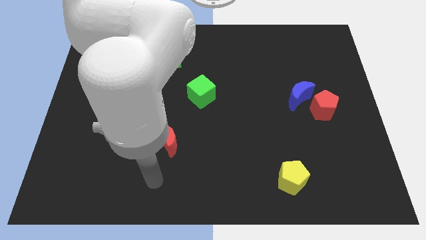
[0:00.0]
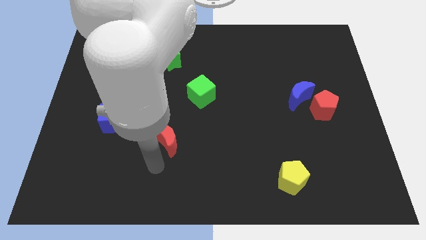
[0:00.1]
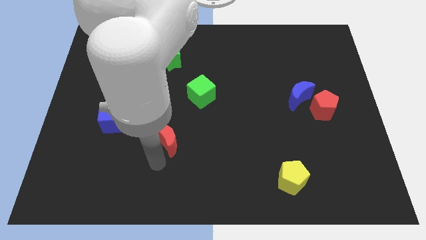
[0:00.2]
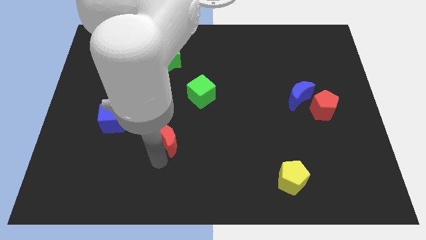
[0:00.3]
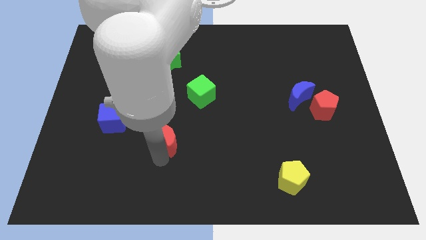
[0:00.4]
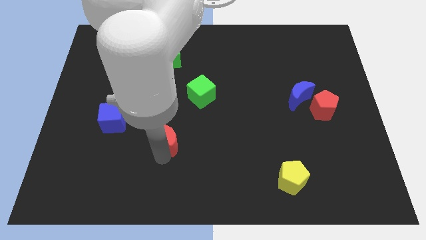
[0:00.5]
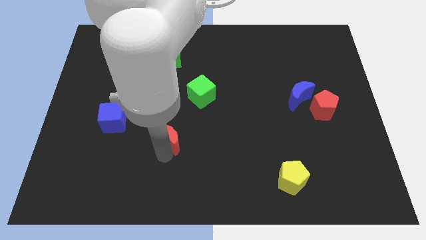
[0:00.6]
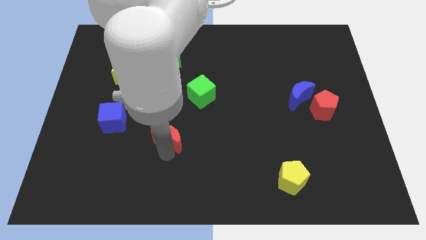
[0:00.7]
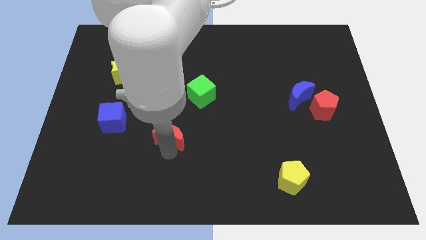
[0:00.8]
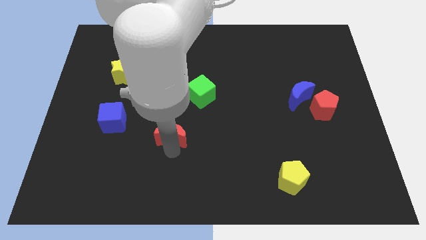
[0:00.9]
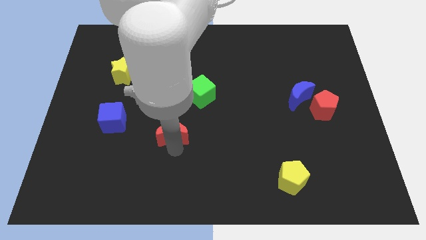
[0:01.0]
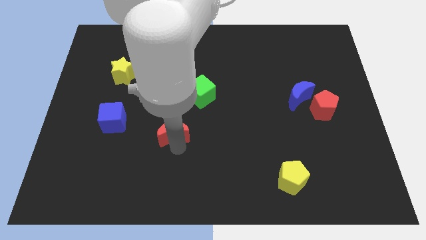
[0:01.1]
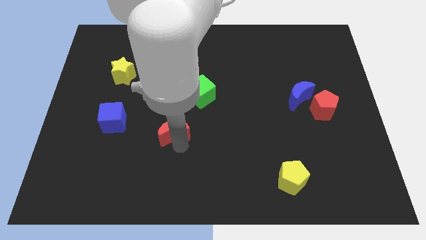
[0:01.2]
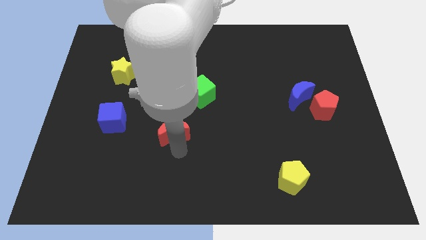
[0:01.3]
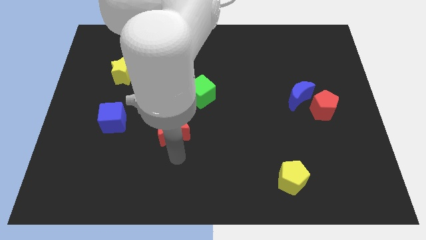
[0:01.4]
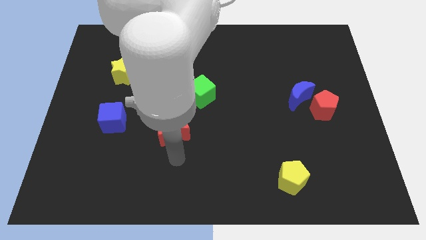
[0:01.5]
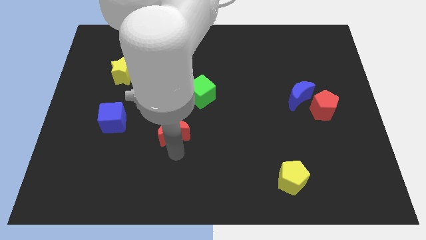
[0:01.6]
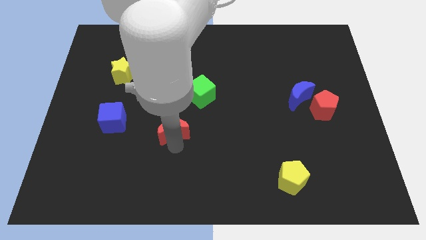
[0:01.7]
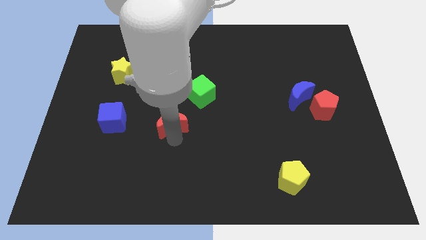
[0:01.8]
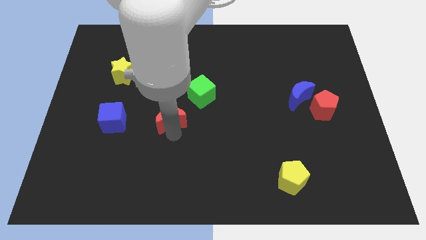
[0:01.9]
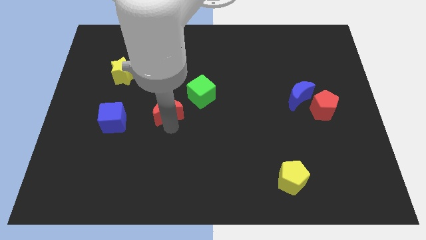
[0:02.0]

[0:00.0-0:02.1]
move the red moon upwards a bit

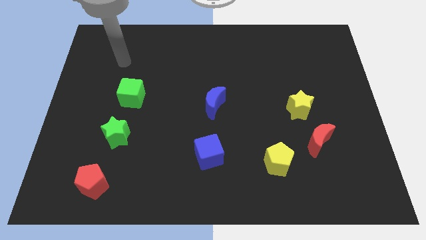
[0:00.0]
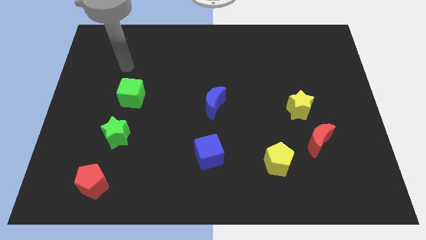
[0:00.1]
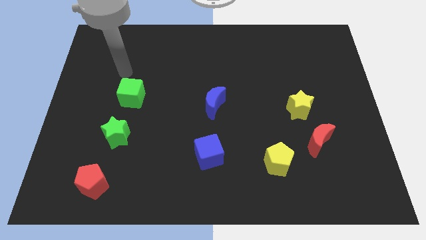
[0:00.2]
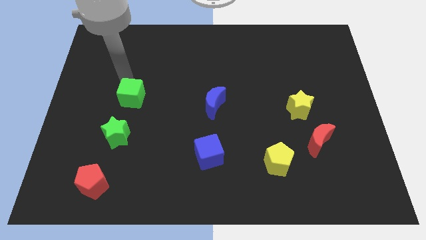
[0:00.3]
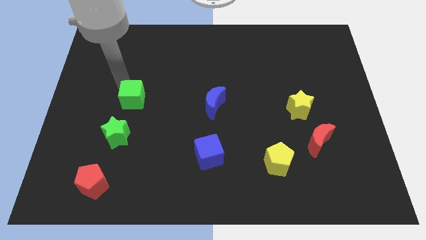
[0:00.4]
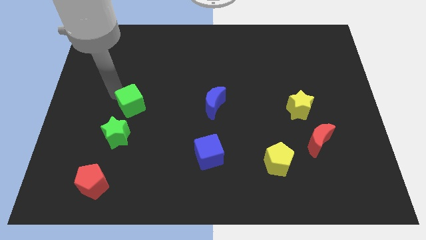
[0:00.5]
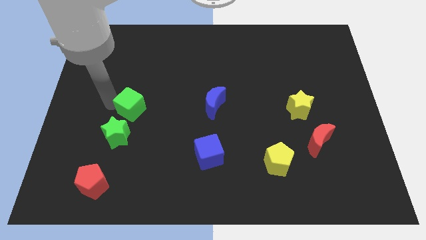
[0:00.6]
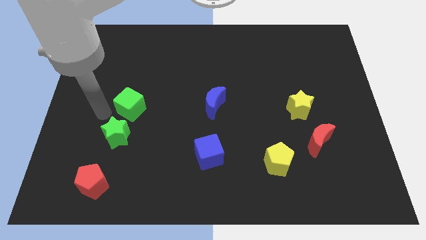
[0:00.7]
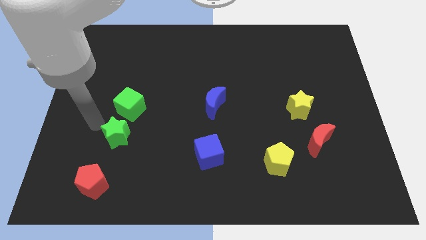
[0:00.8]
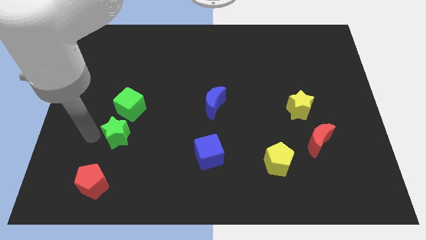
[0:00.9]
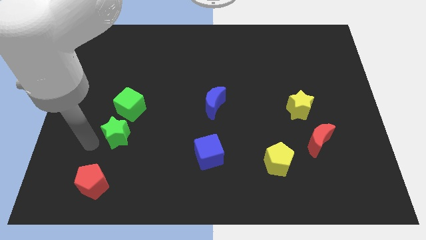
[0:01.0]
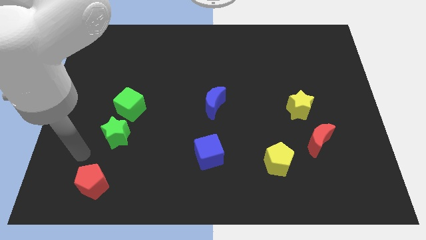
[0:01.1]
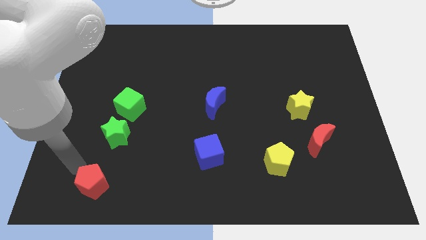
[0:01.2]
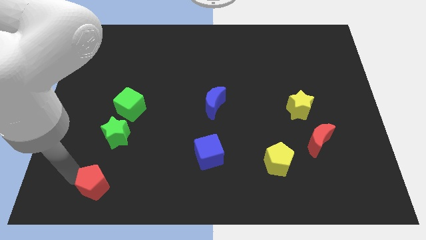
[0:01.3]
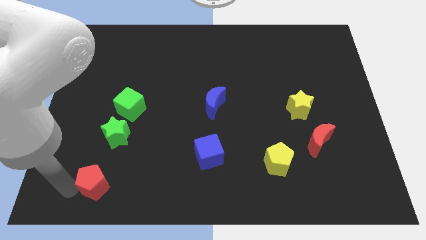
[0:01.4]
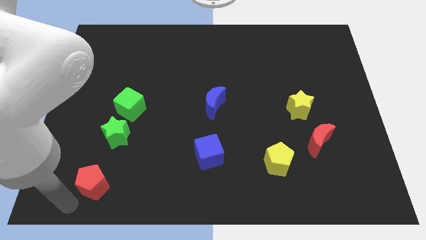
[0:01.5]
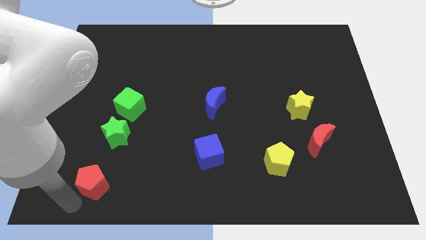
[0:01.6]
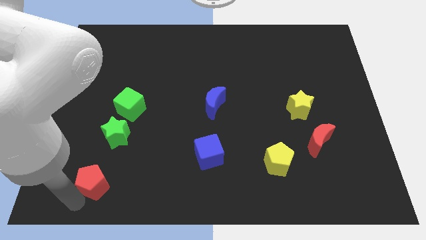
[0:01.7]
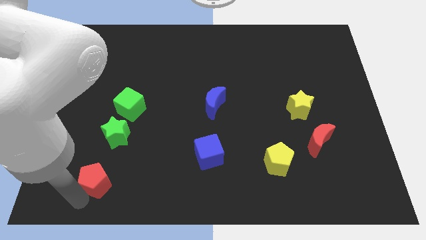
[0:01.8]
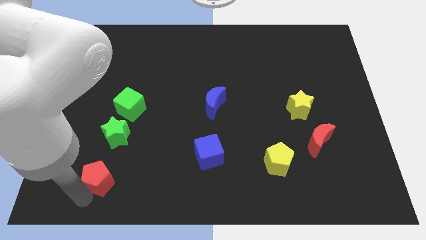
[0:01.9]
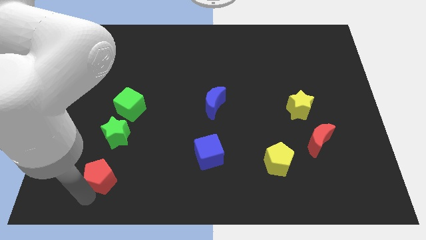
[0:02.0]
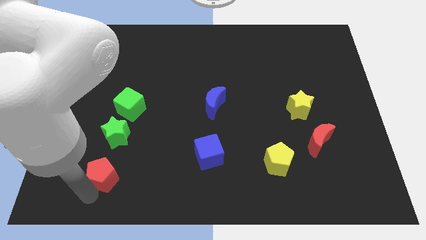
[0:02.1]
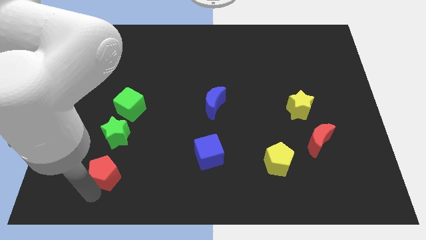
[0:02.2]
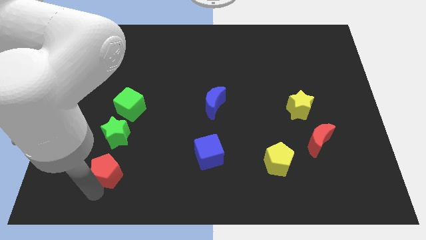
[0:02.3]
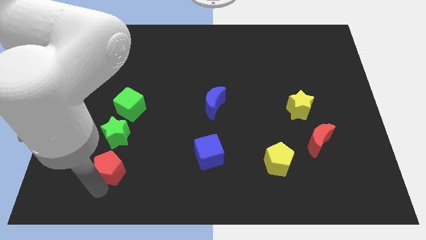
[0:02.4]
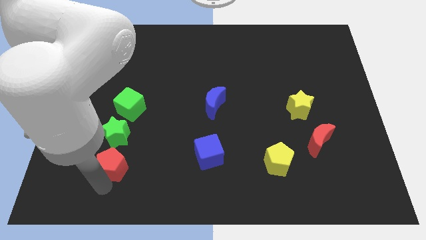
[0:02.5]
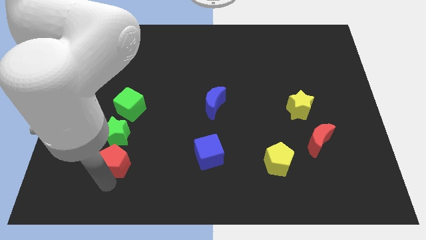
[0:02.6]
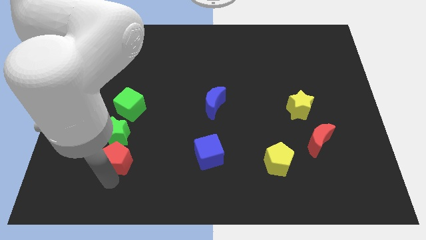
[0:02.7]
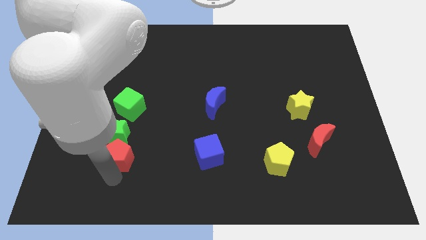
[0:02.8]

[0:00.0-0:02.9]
slide the red pentagon up and then right a little bit

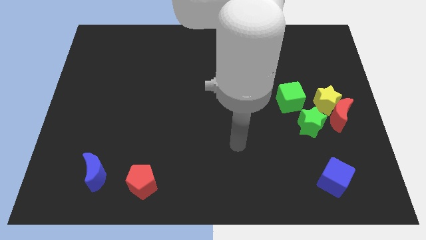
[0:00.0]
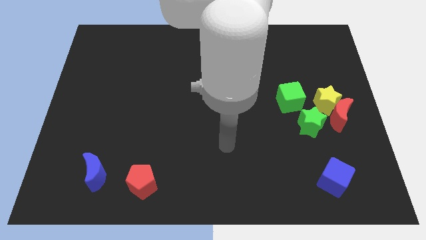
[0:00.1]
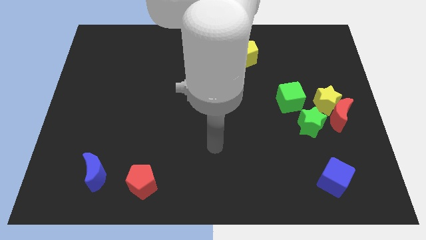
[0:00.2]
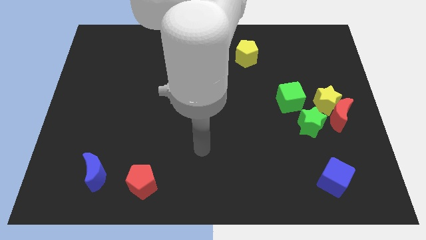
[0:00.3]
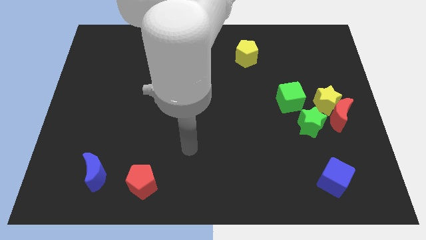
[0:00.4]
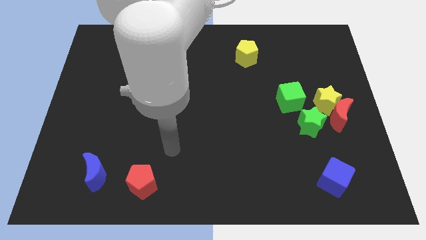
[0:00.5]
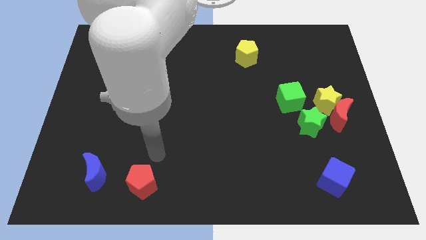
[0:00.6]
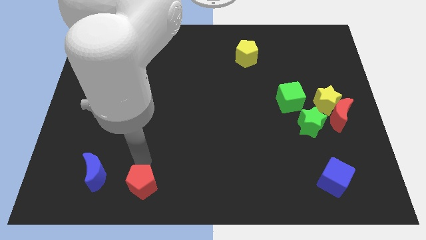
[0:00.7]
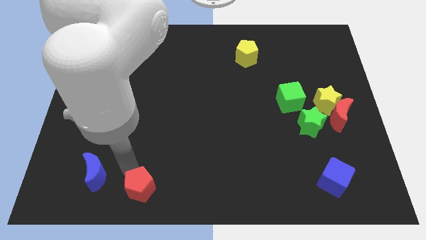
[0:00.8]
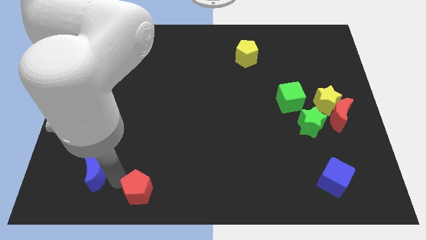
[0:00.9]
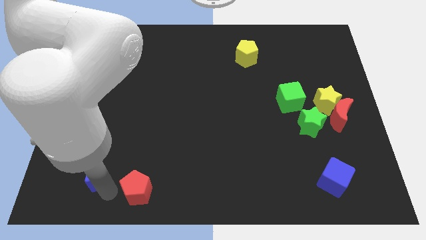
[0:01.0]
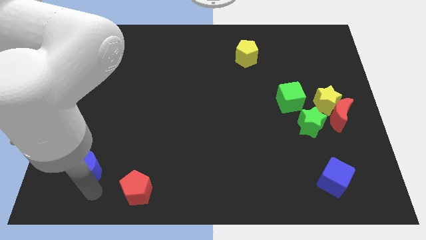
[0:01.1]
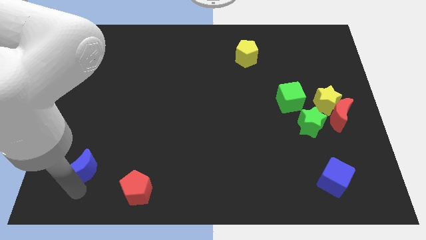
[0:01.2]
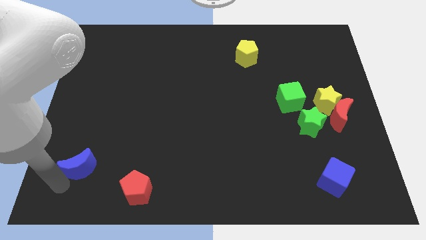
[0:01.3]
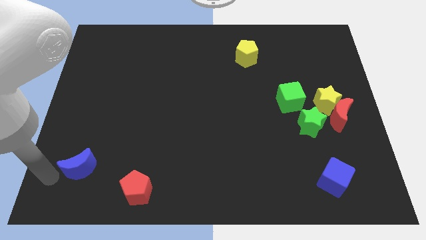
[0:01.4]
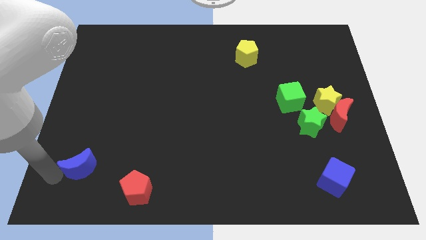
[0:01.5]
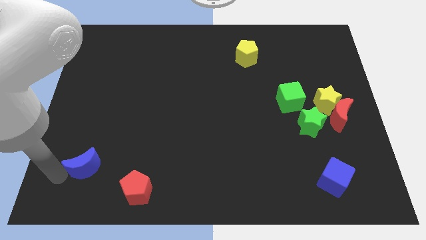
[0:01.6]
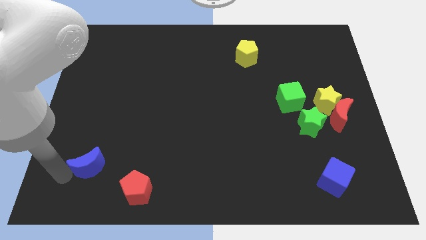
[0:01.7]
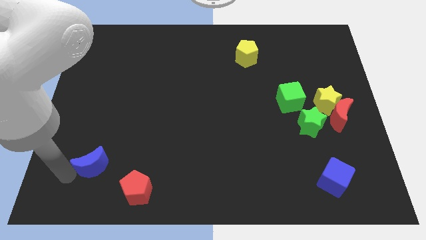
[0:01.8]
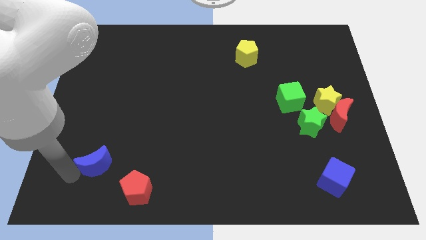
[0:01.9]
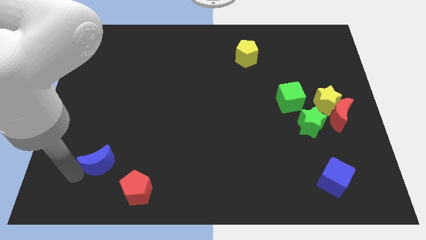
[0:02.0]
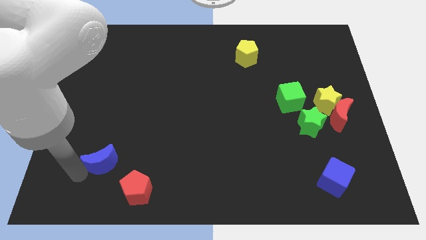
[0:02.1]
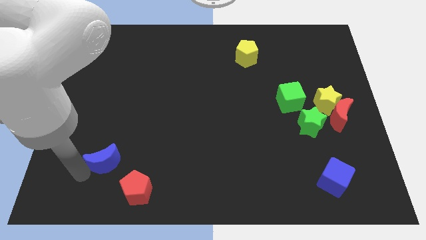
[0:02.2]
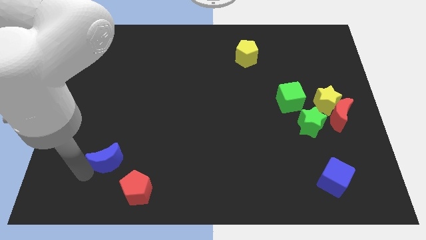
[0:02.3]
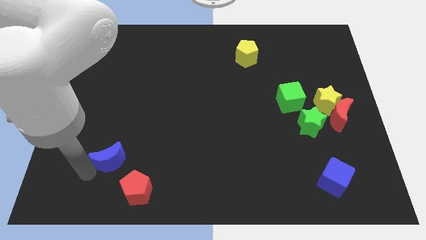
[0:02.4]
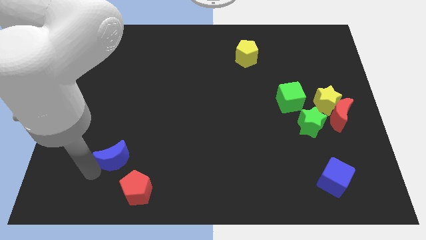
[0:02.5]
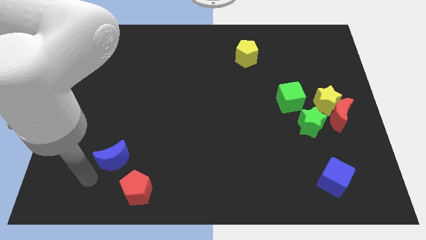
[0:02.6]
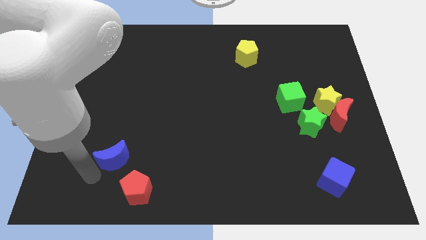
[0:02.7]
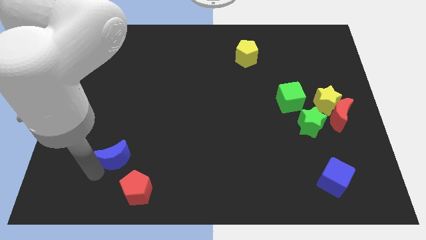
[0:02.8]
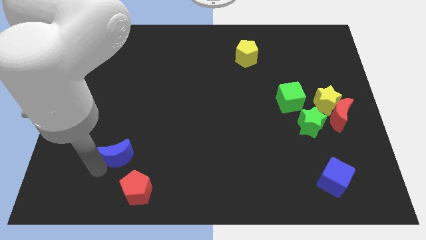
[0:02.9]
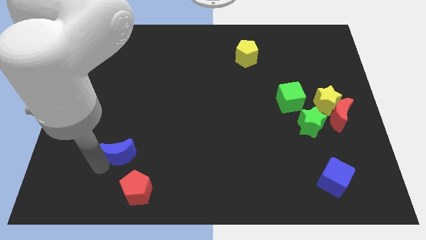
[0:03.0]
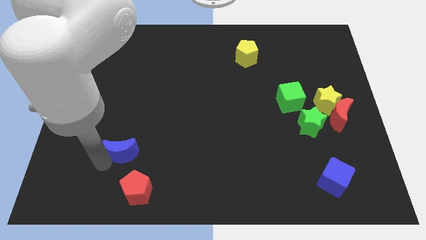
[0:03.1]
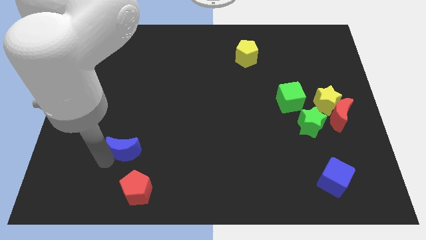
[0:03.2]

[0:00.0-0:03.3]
slightly push the blue moon upwards and to the right
